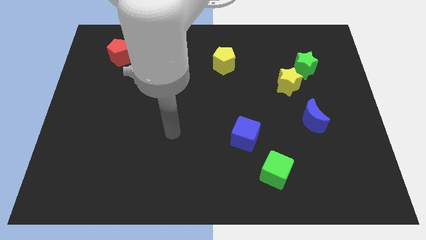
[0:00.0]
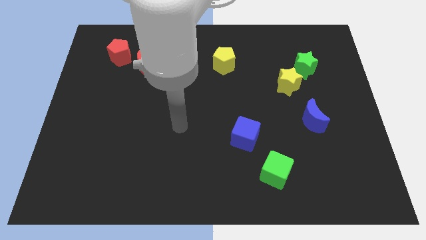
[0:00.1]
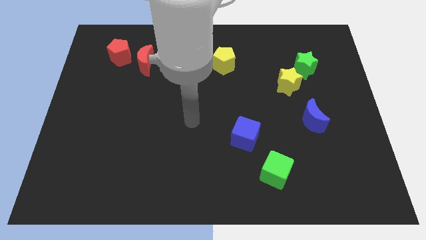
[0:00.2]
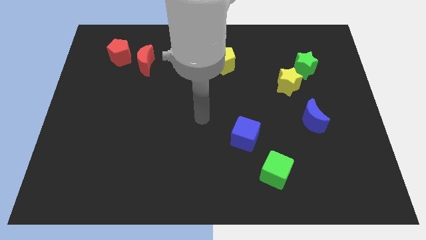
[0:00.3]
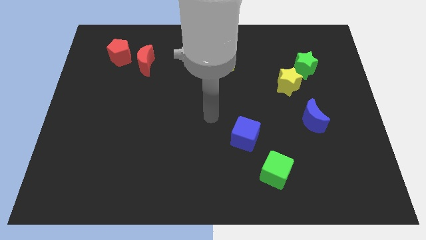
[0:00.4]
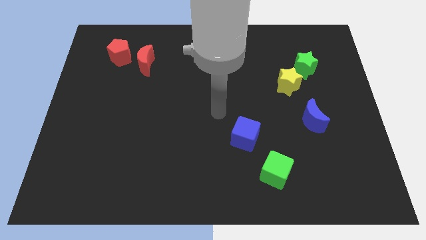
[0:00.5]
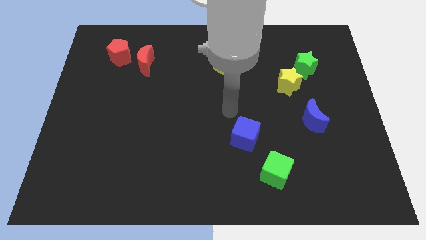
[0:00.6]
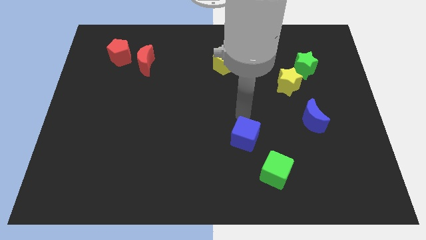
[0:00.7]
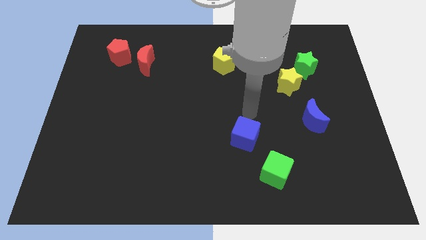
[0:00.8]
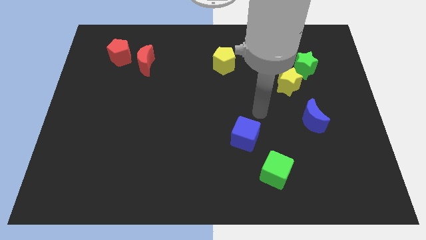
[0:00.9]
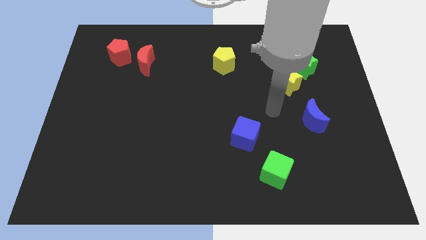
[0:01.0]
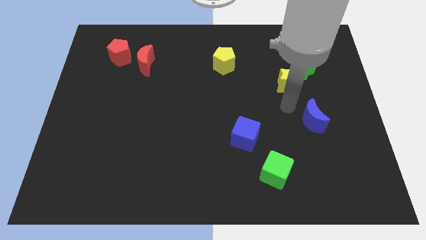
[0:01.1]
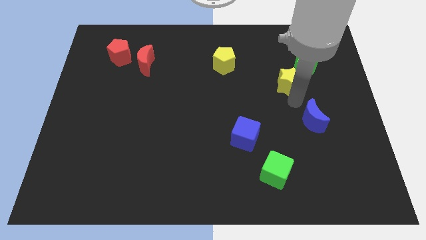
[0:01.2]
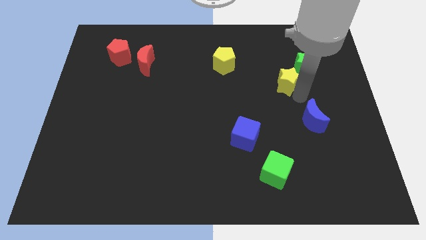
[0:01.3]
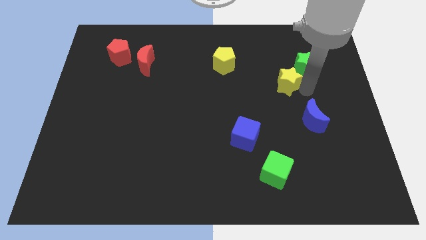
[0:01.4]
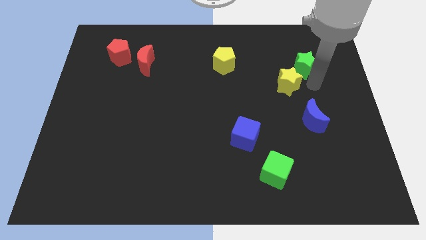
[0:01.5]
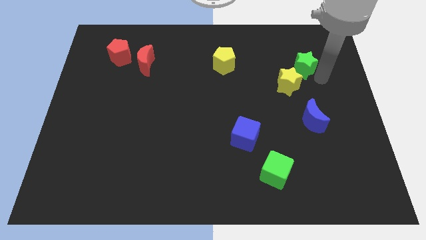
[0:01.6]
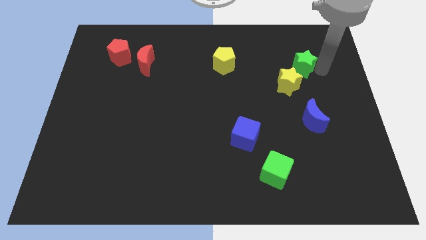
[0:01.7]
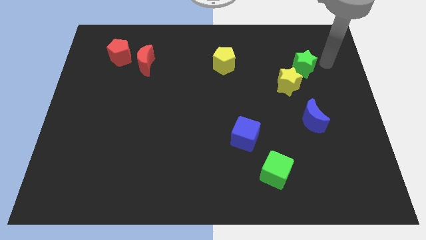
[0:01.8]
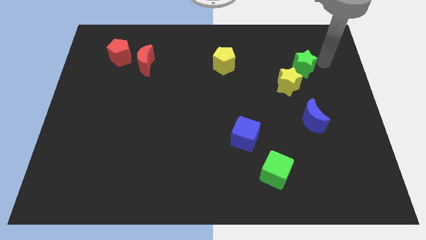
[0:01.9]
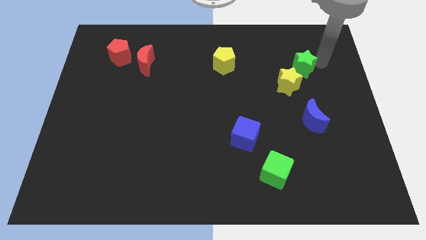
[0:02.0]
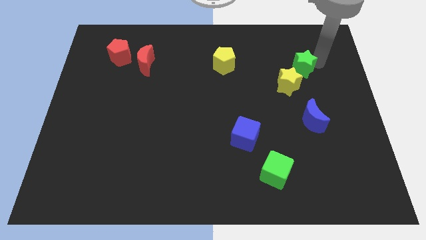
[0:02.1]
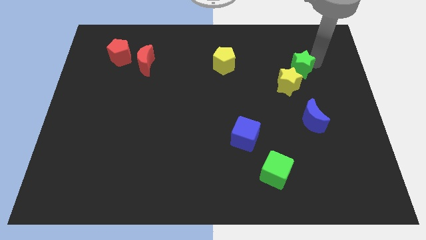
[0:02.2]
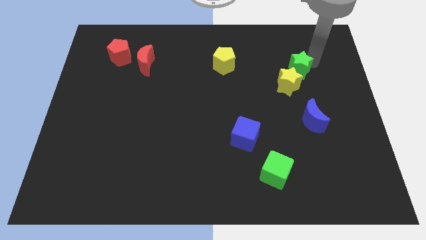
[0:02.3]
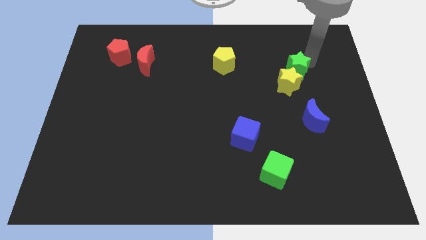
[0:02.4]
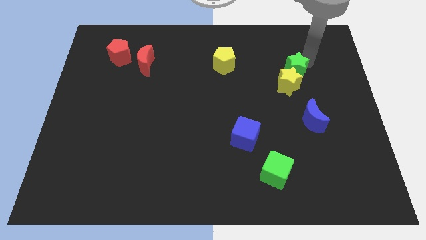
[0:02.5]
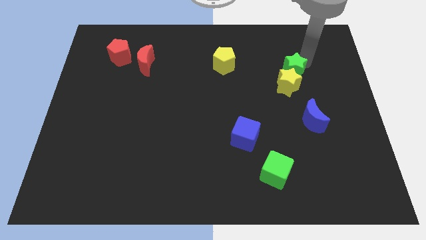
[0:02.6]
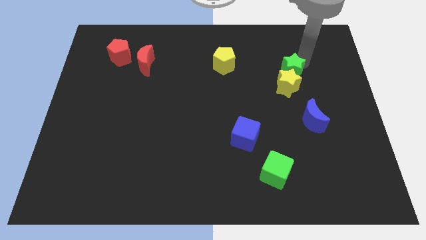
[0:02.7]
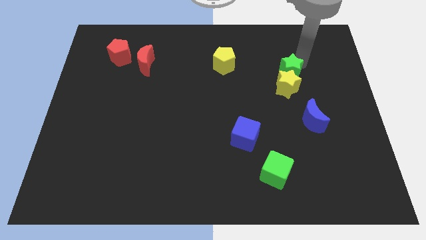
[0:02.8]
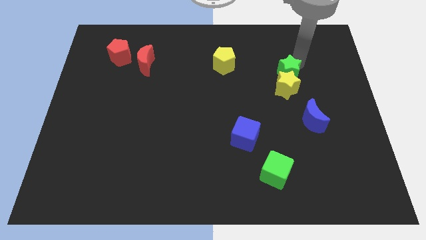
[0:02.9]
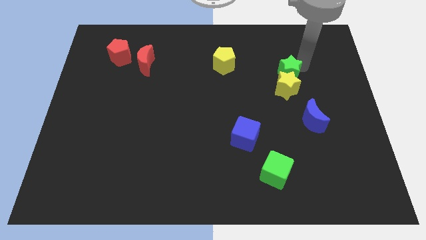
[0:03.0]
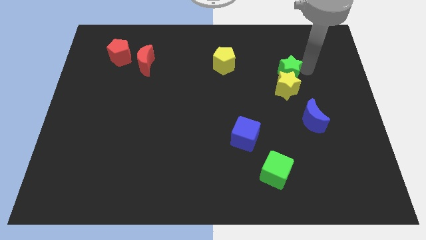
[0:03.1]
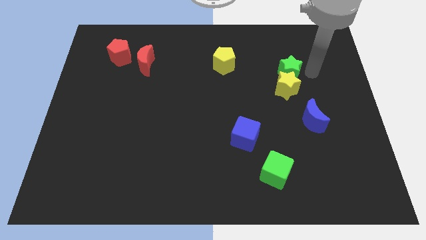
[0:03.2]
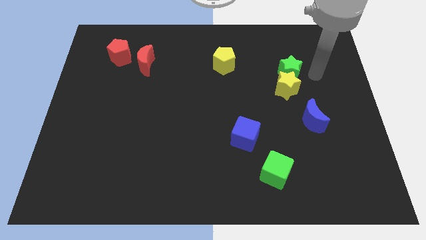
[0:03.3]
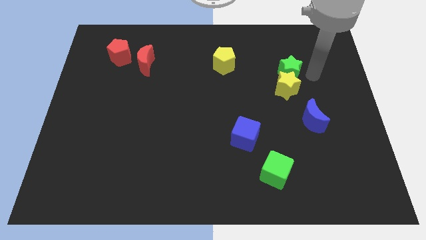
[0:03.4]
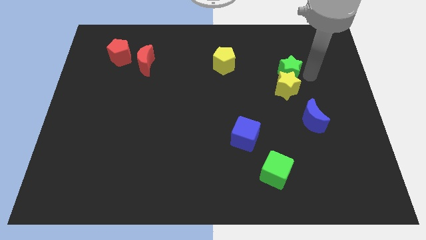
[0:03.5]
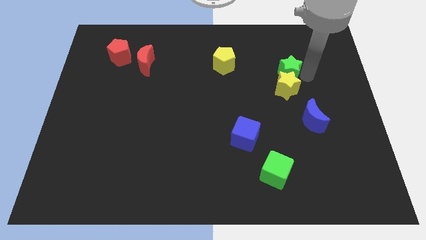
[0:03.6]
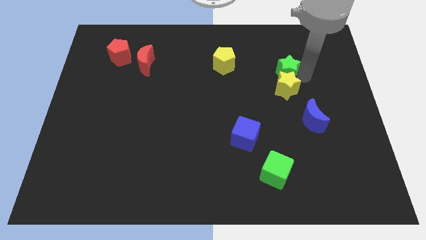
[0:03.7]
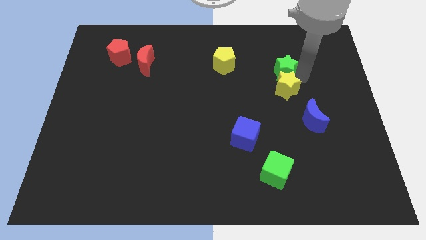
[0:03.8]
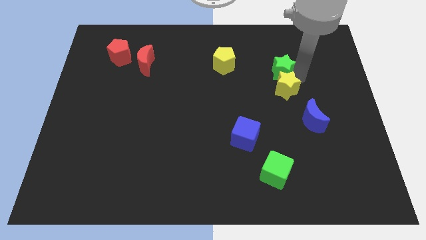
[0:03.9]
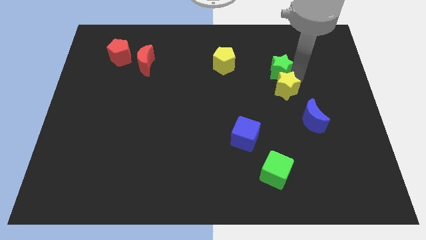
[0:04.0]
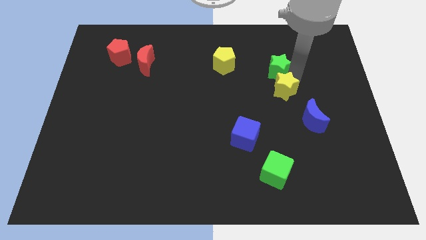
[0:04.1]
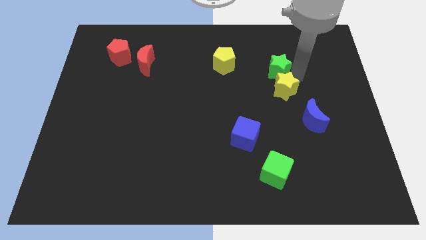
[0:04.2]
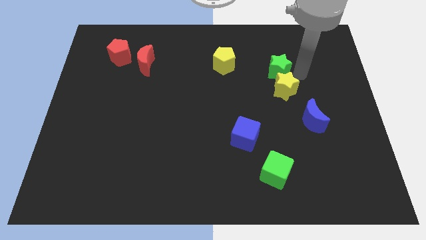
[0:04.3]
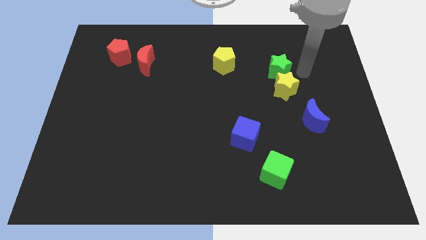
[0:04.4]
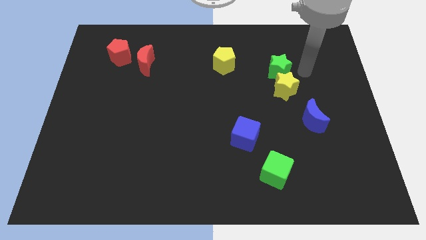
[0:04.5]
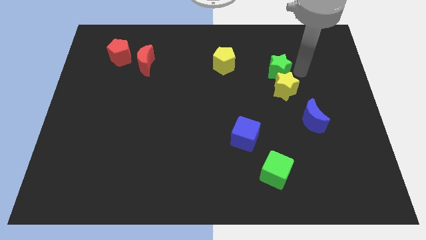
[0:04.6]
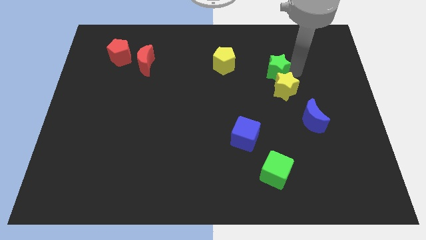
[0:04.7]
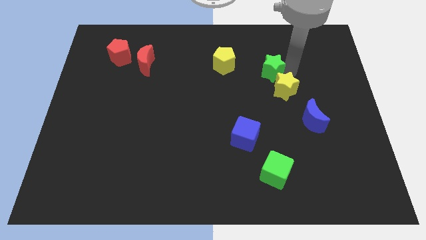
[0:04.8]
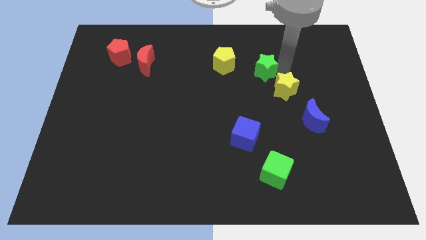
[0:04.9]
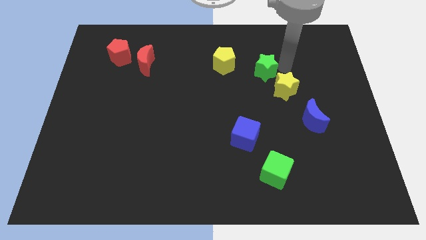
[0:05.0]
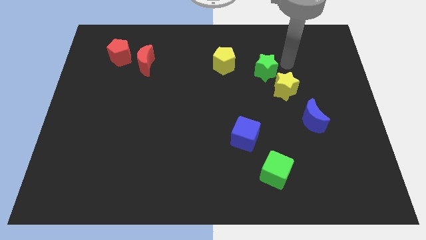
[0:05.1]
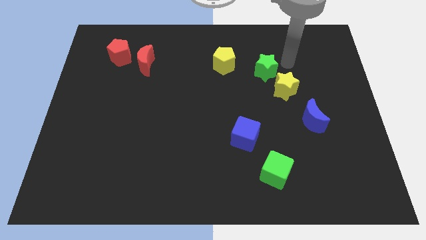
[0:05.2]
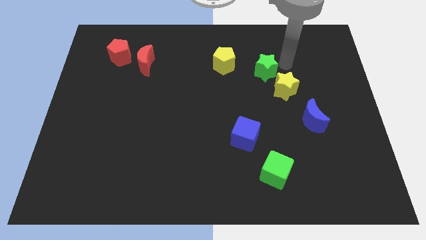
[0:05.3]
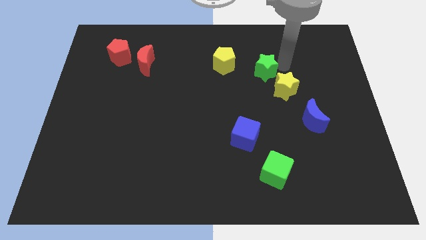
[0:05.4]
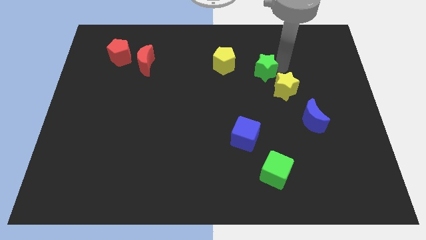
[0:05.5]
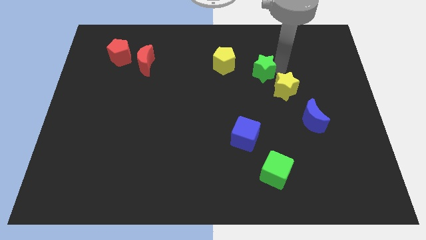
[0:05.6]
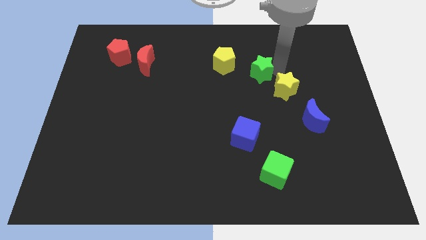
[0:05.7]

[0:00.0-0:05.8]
slide the green star diagonally down and to the right of the yellow pentagon

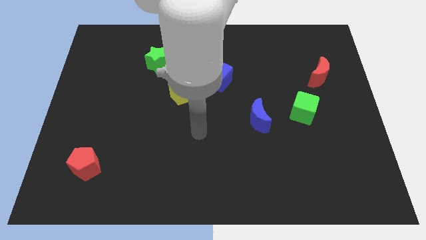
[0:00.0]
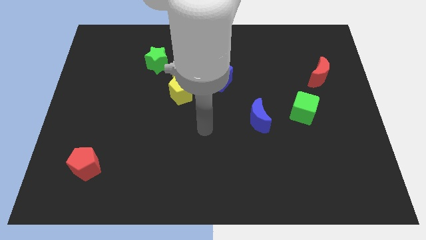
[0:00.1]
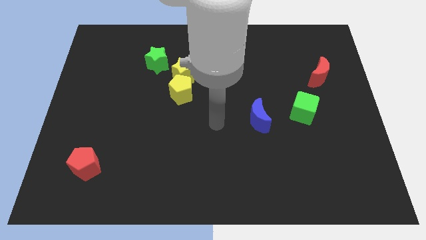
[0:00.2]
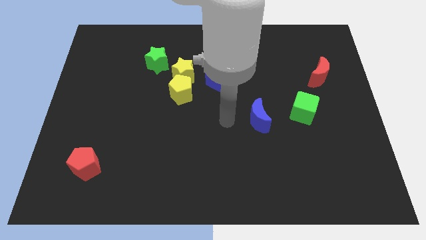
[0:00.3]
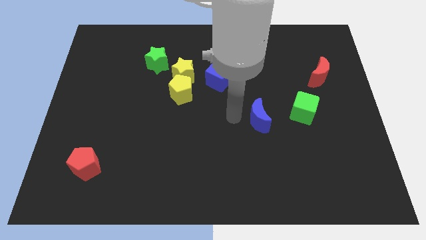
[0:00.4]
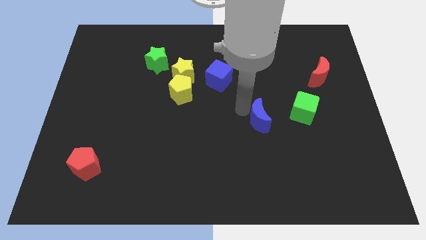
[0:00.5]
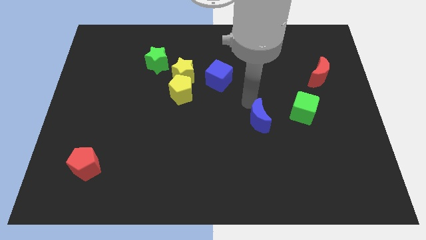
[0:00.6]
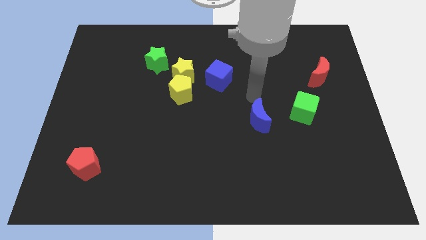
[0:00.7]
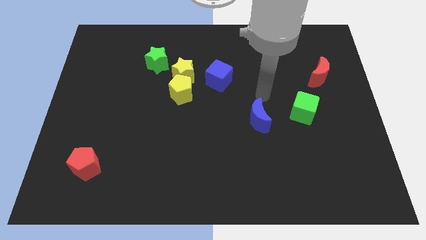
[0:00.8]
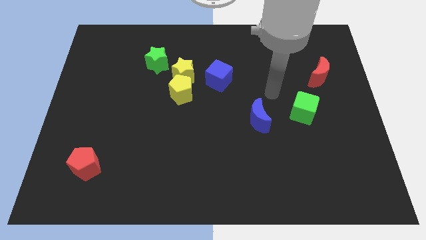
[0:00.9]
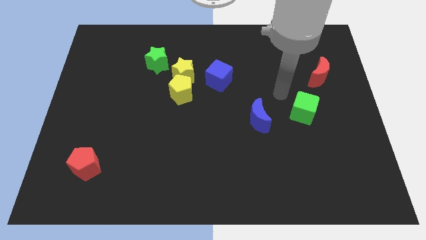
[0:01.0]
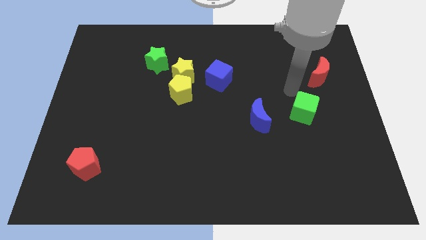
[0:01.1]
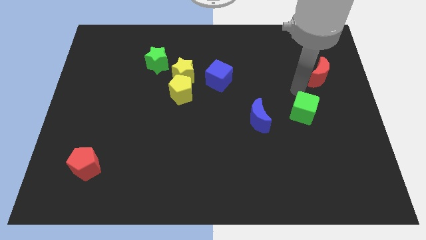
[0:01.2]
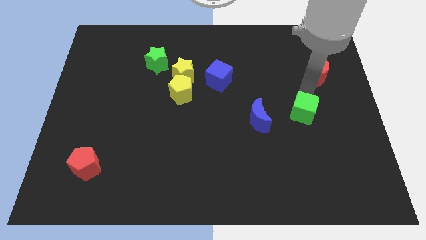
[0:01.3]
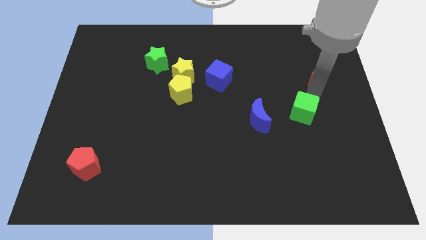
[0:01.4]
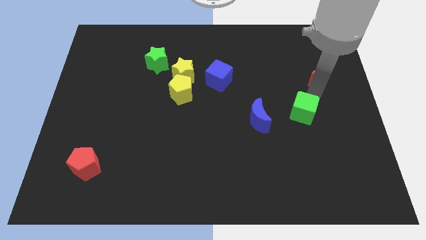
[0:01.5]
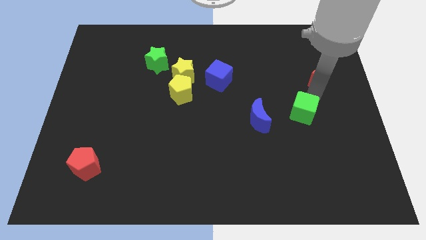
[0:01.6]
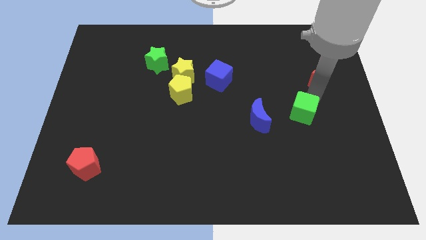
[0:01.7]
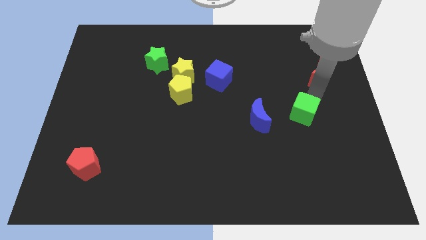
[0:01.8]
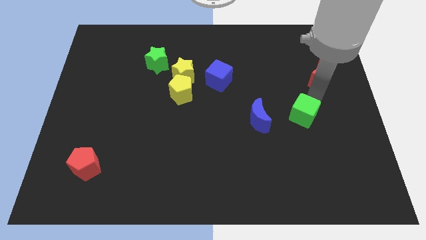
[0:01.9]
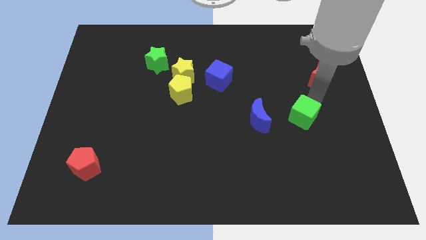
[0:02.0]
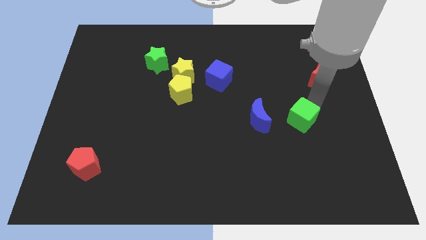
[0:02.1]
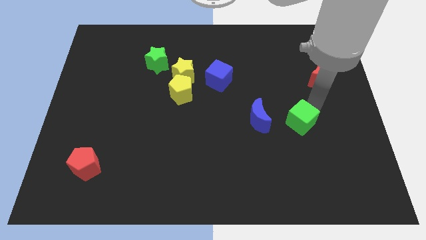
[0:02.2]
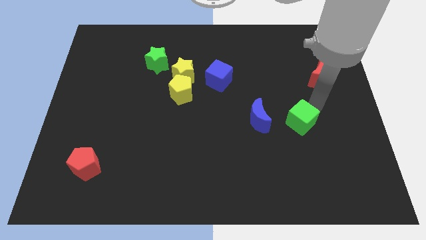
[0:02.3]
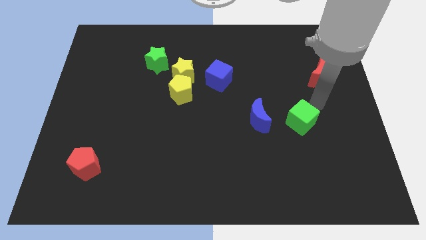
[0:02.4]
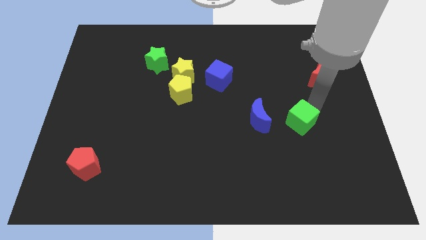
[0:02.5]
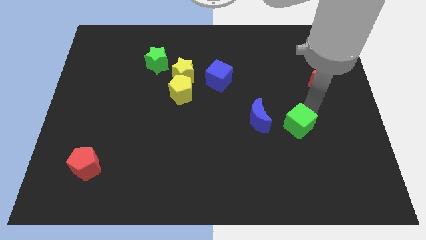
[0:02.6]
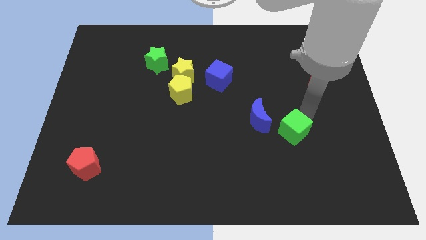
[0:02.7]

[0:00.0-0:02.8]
slide the green cube diagonally down and to the right of the blue moon
